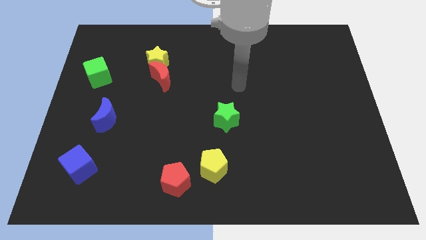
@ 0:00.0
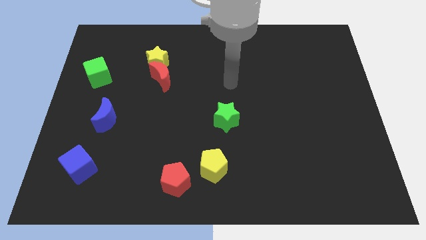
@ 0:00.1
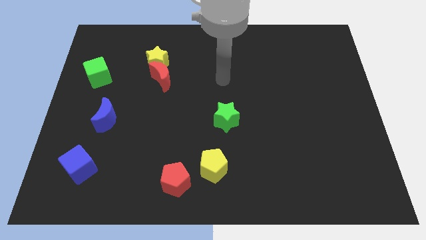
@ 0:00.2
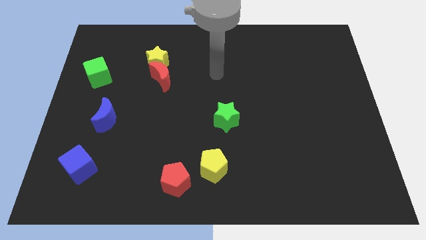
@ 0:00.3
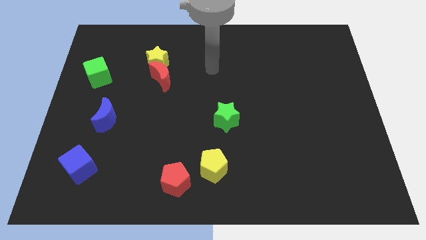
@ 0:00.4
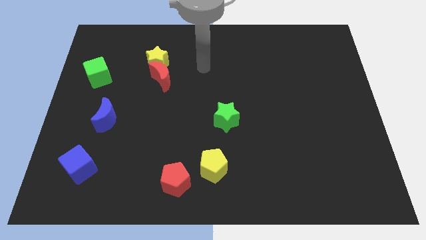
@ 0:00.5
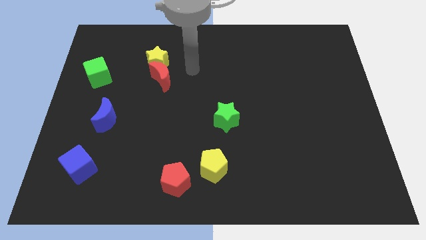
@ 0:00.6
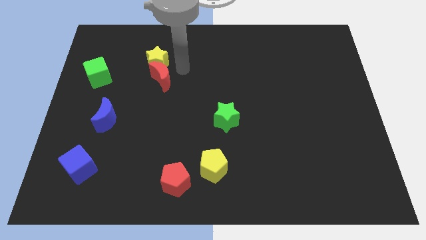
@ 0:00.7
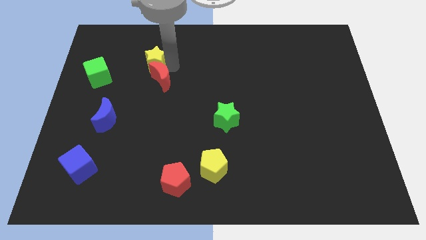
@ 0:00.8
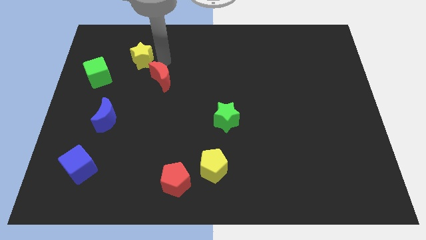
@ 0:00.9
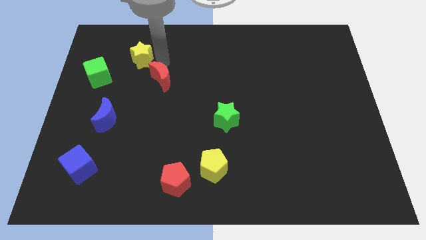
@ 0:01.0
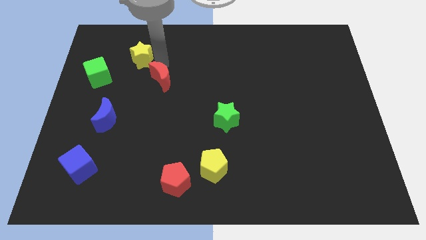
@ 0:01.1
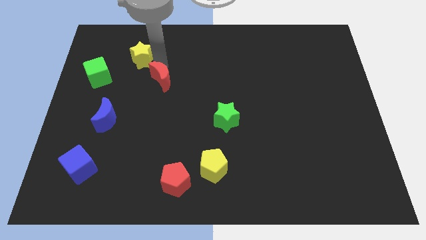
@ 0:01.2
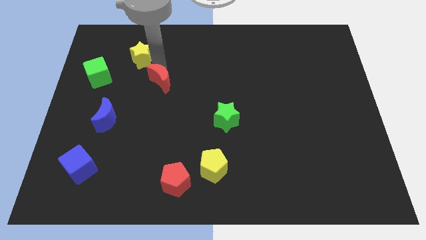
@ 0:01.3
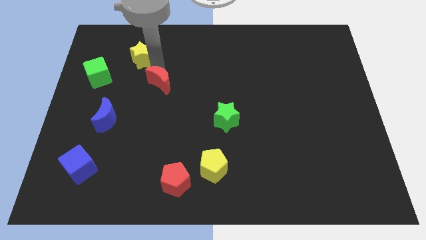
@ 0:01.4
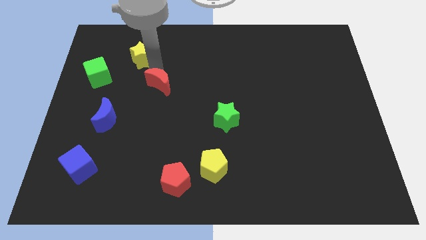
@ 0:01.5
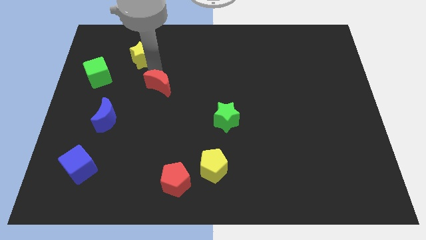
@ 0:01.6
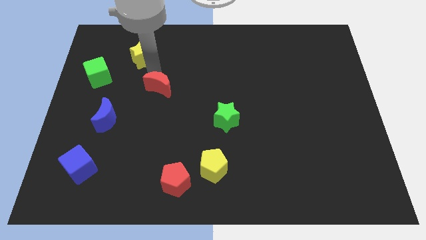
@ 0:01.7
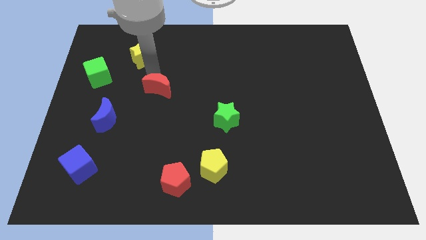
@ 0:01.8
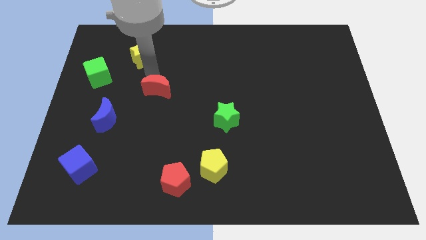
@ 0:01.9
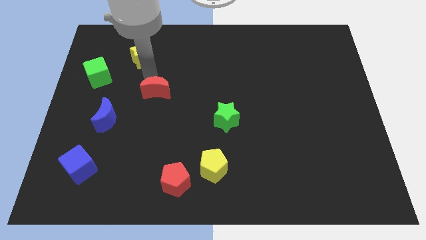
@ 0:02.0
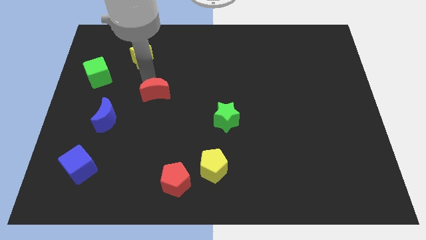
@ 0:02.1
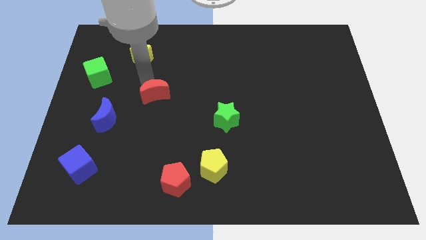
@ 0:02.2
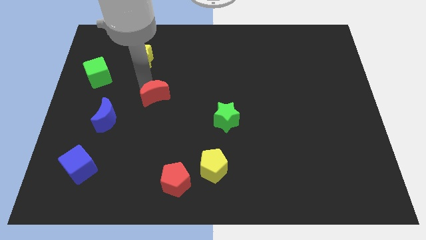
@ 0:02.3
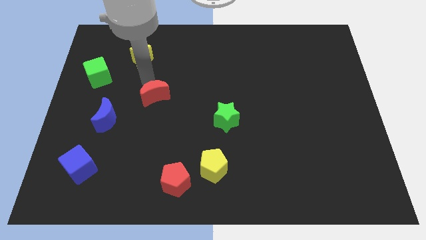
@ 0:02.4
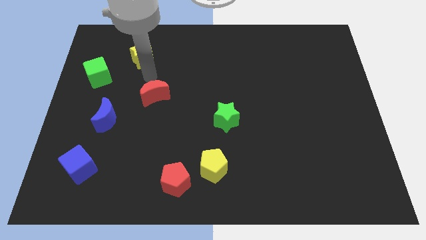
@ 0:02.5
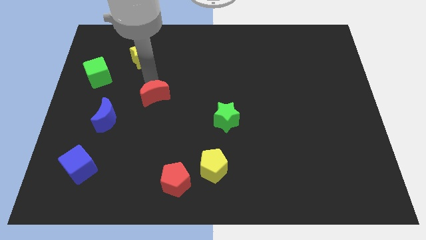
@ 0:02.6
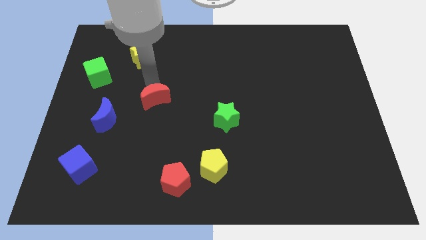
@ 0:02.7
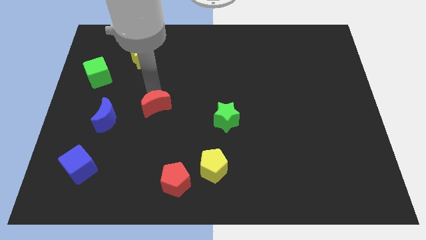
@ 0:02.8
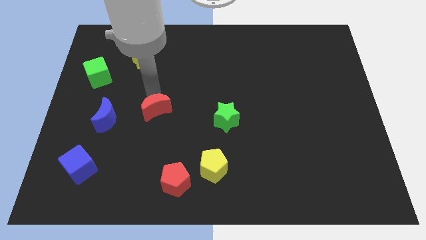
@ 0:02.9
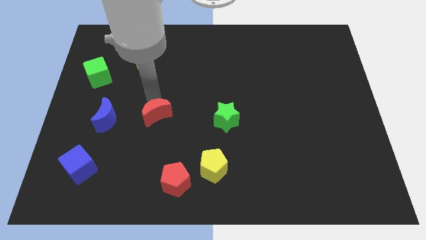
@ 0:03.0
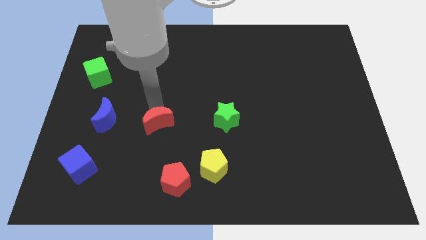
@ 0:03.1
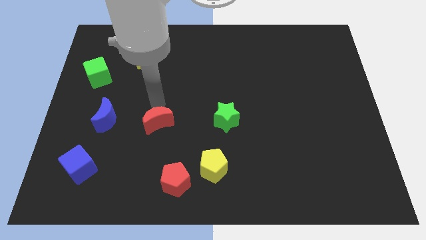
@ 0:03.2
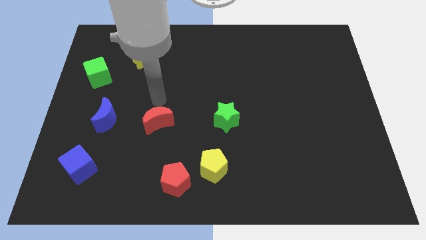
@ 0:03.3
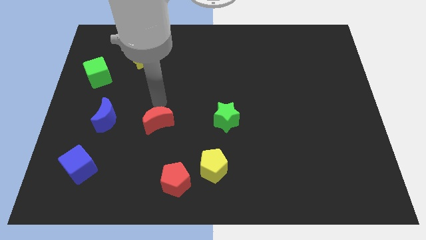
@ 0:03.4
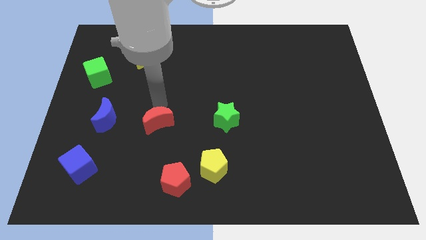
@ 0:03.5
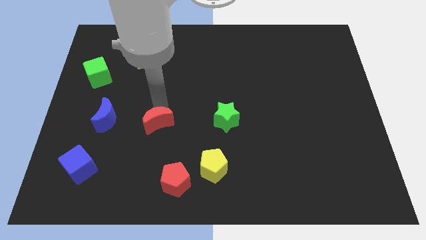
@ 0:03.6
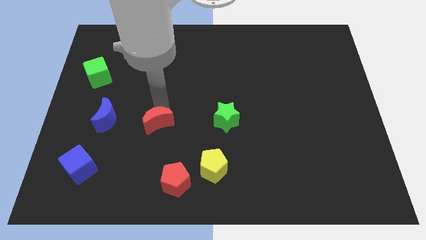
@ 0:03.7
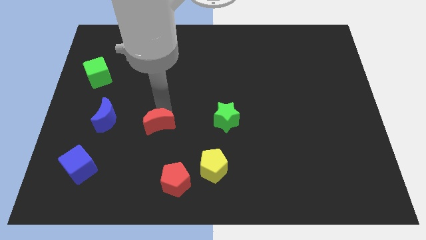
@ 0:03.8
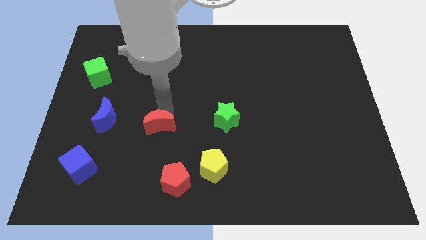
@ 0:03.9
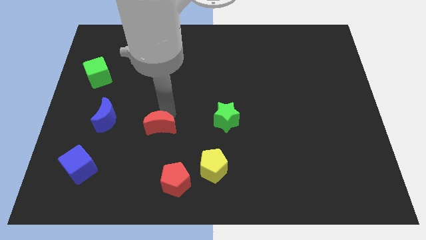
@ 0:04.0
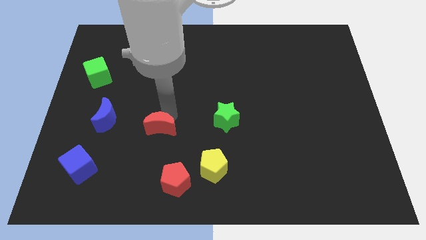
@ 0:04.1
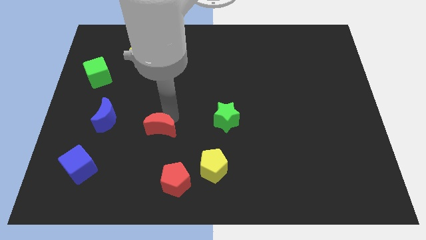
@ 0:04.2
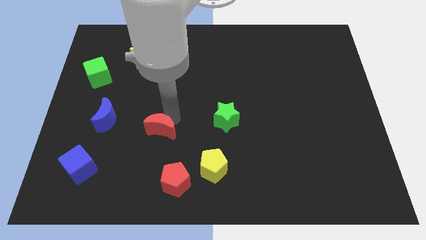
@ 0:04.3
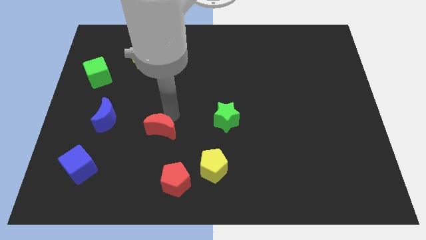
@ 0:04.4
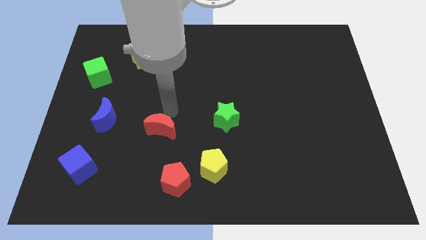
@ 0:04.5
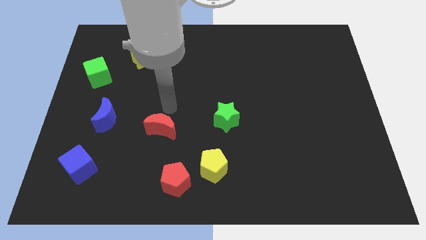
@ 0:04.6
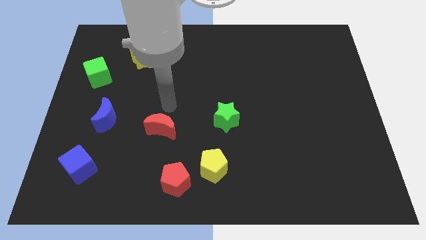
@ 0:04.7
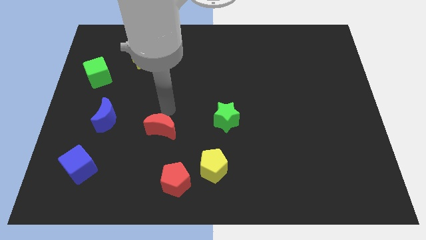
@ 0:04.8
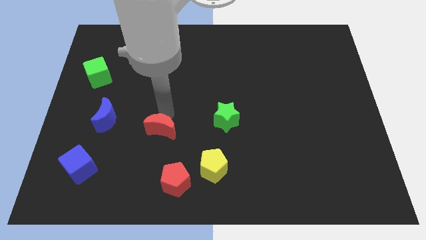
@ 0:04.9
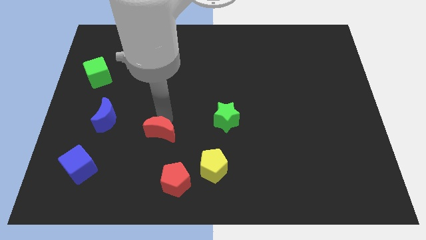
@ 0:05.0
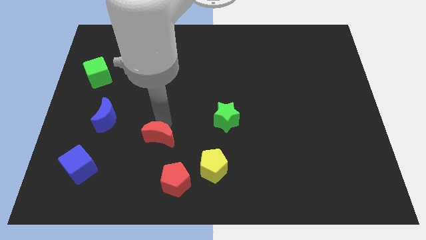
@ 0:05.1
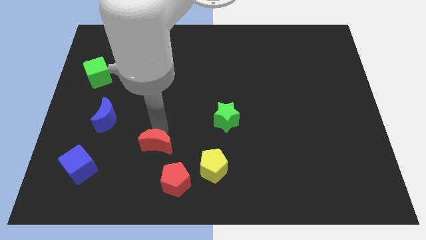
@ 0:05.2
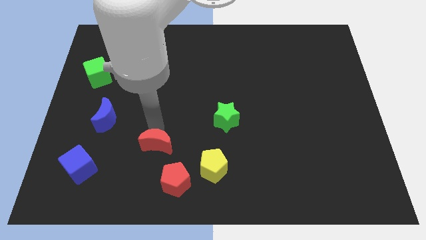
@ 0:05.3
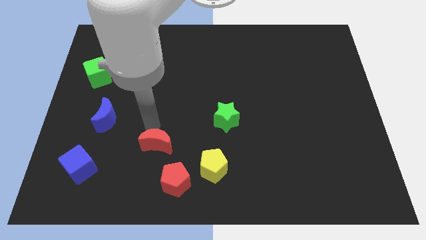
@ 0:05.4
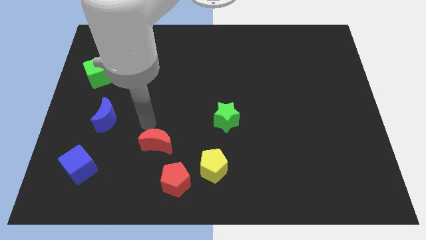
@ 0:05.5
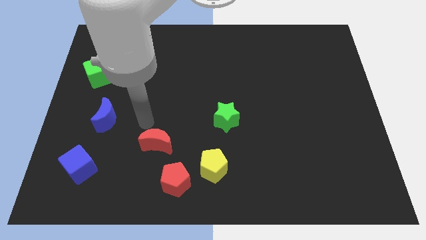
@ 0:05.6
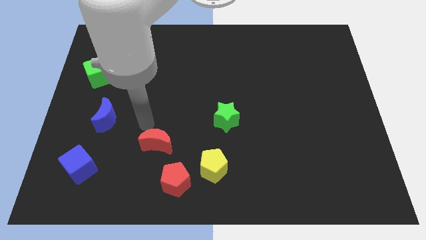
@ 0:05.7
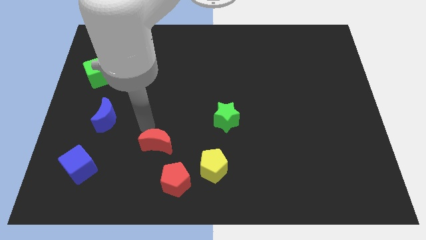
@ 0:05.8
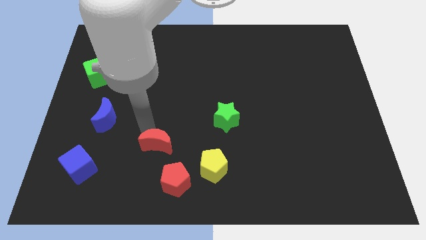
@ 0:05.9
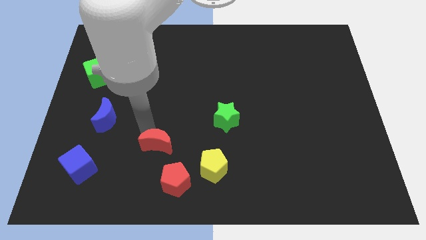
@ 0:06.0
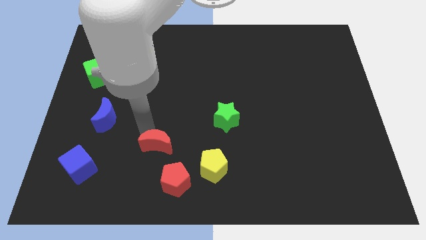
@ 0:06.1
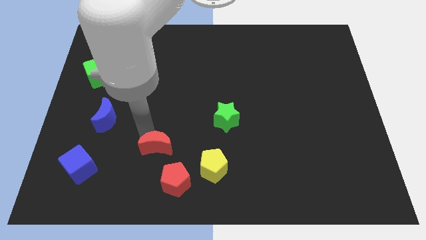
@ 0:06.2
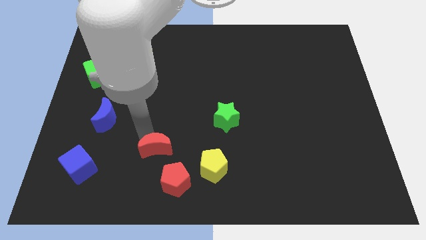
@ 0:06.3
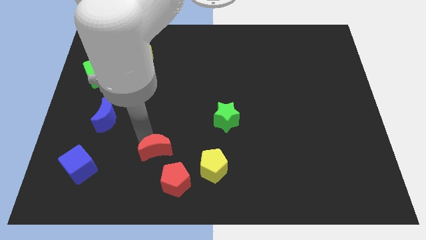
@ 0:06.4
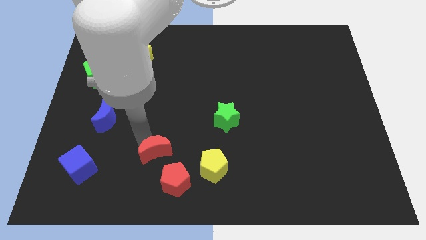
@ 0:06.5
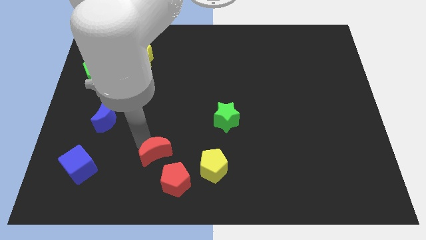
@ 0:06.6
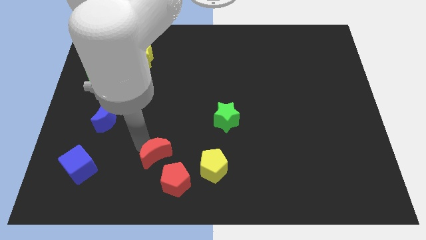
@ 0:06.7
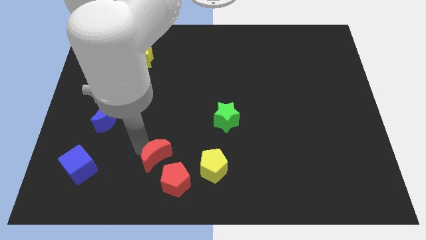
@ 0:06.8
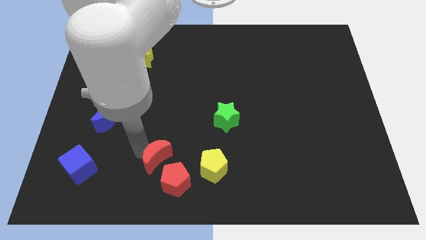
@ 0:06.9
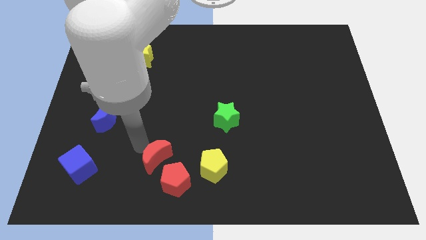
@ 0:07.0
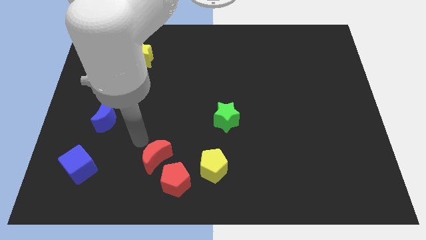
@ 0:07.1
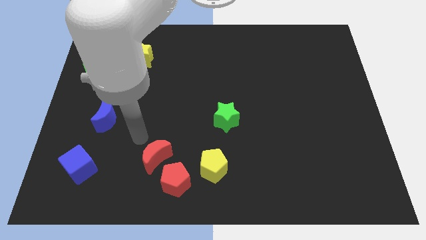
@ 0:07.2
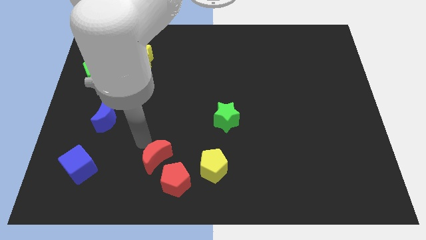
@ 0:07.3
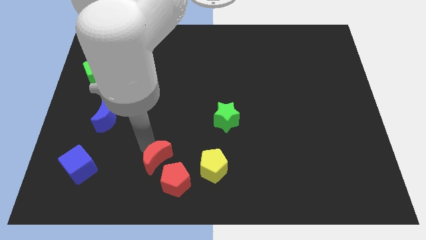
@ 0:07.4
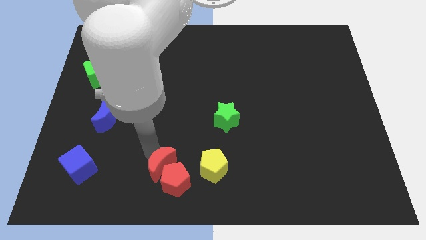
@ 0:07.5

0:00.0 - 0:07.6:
move the red moon towards the red pentagon

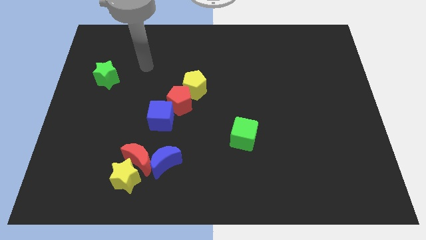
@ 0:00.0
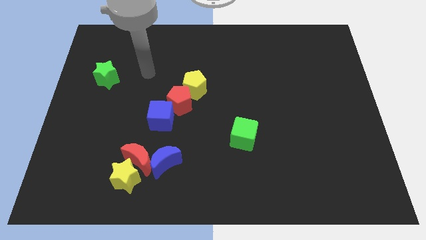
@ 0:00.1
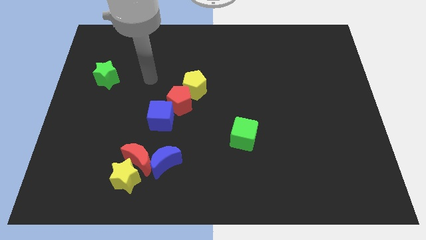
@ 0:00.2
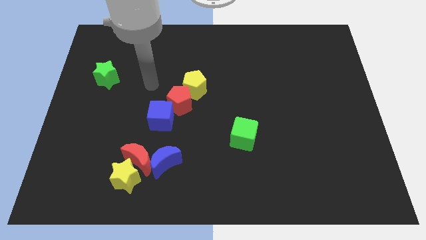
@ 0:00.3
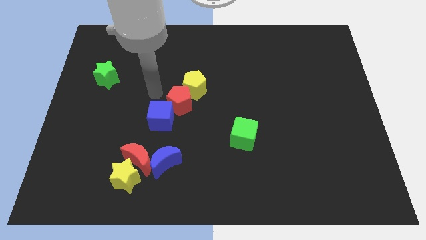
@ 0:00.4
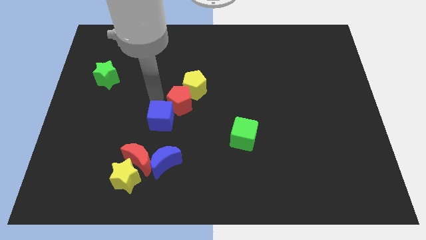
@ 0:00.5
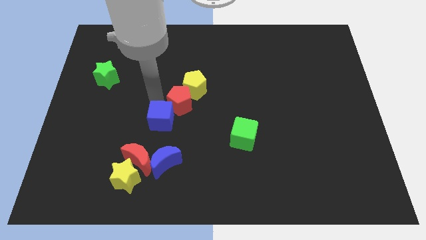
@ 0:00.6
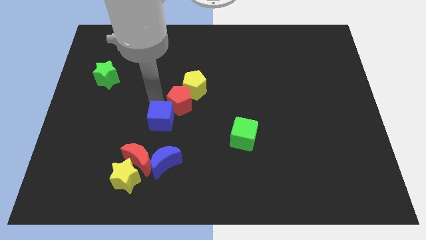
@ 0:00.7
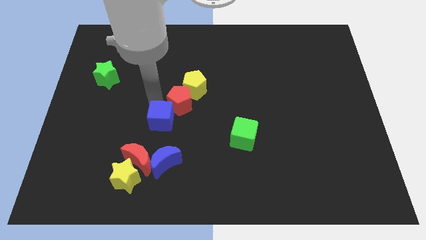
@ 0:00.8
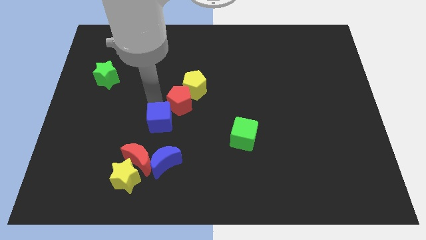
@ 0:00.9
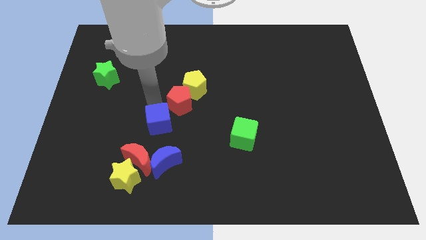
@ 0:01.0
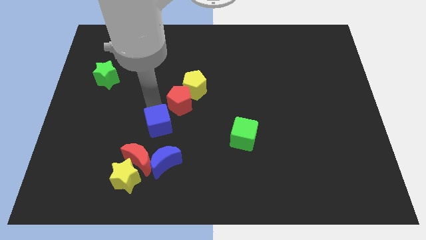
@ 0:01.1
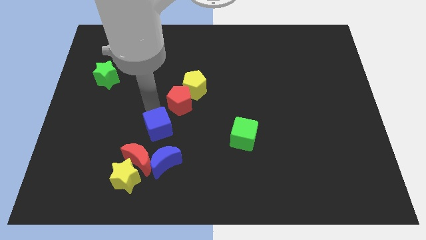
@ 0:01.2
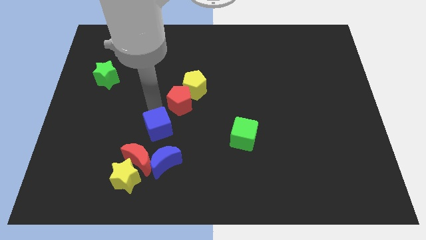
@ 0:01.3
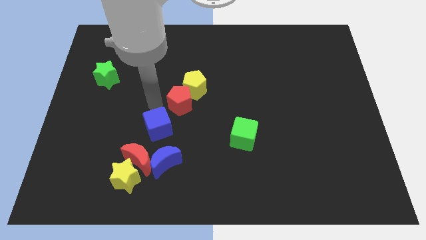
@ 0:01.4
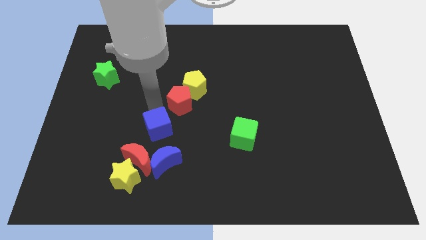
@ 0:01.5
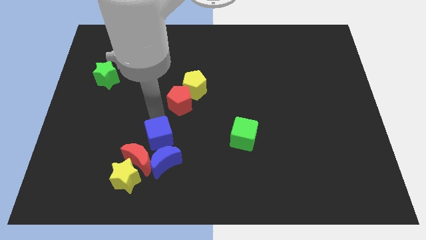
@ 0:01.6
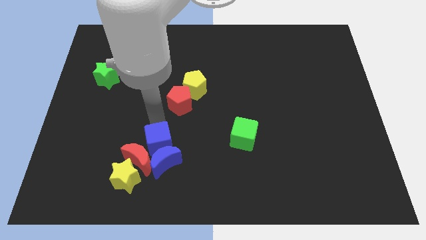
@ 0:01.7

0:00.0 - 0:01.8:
put the blue cube close to the blue moon
